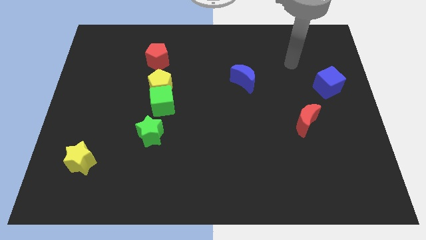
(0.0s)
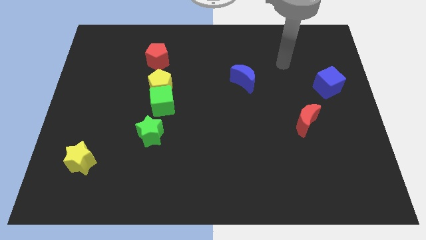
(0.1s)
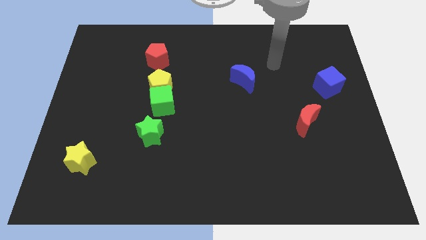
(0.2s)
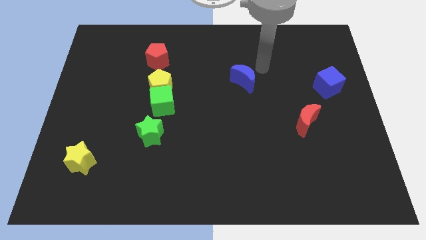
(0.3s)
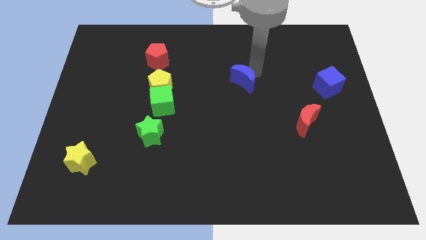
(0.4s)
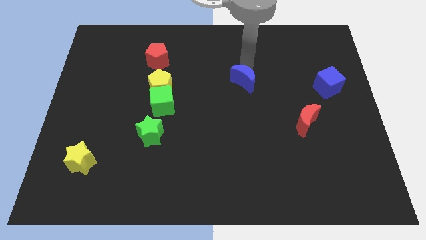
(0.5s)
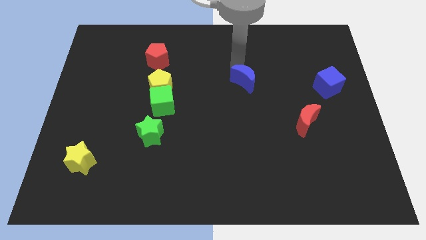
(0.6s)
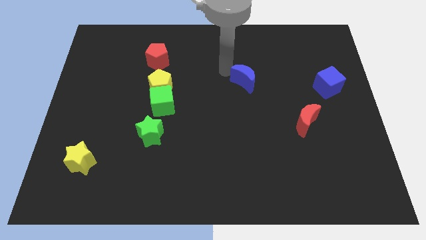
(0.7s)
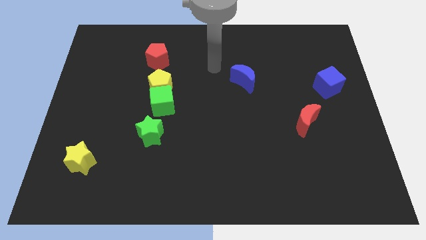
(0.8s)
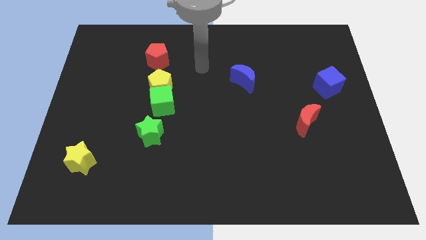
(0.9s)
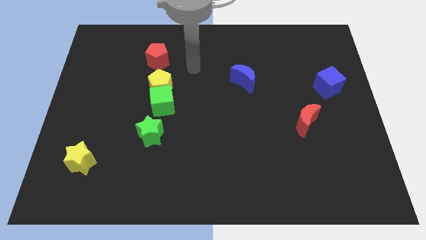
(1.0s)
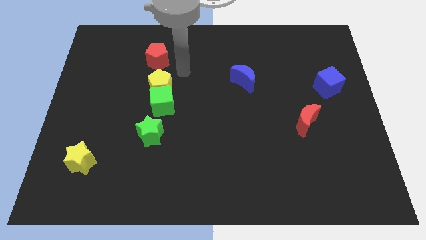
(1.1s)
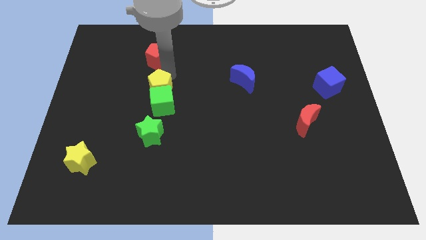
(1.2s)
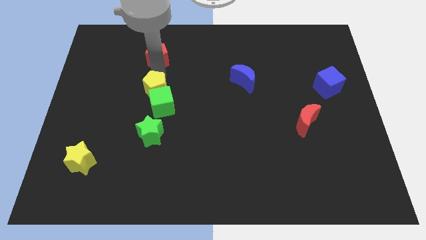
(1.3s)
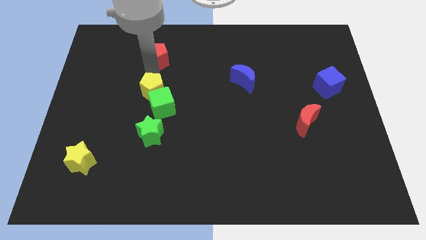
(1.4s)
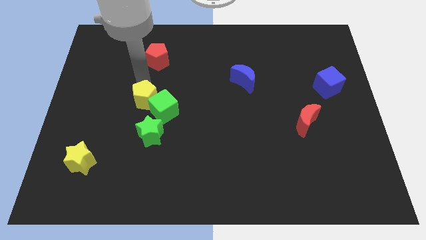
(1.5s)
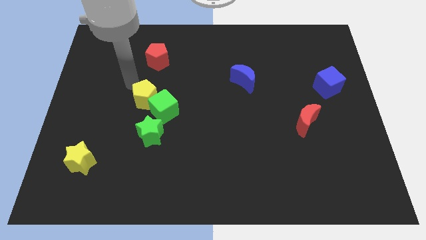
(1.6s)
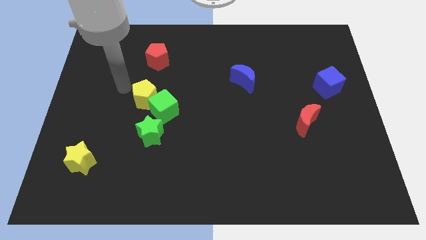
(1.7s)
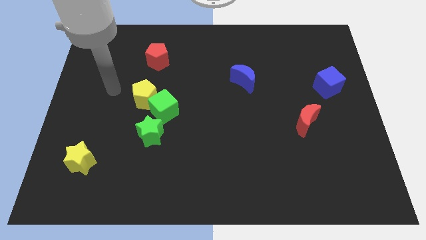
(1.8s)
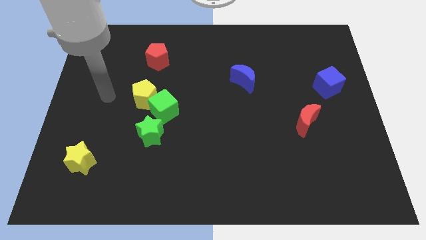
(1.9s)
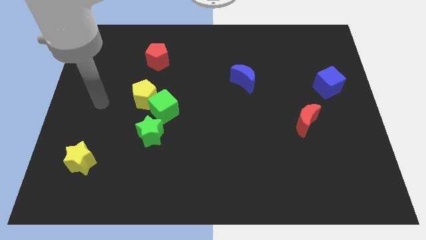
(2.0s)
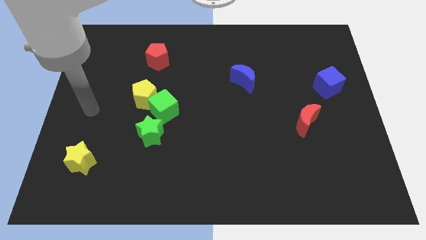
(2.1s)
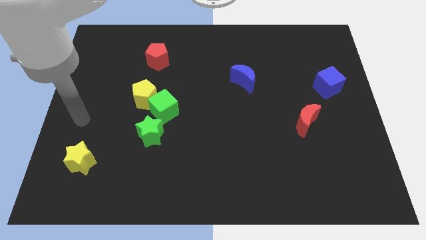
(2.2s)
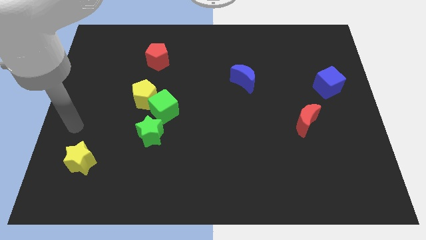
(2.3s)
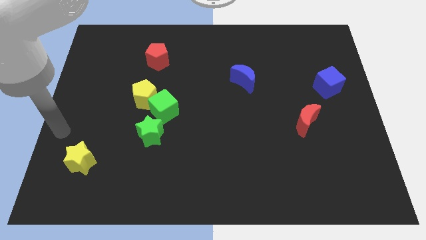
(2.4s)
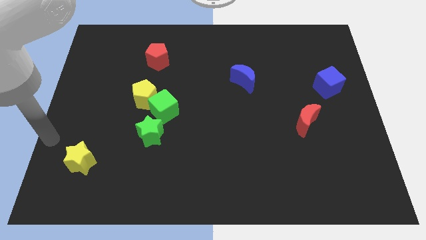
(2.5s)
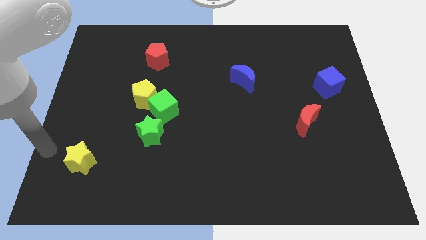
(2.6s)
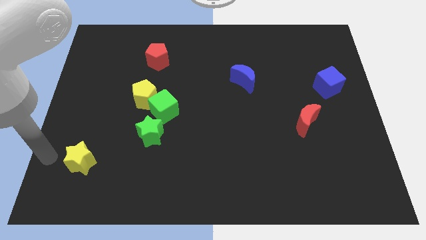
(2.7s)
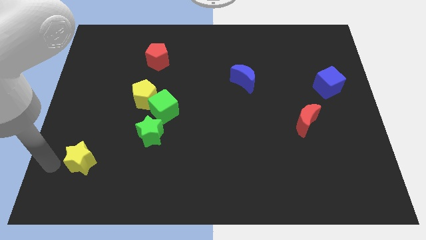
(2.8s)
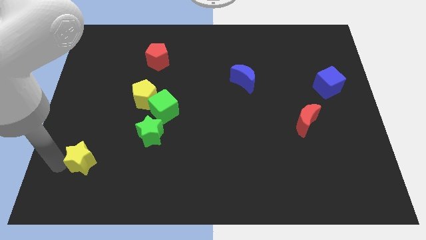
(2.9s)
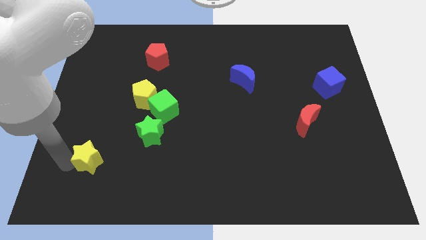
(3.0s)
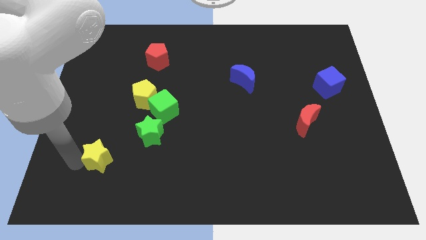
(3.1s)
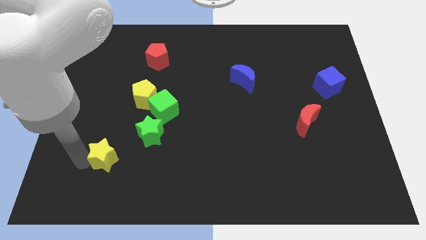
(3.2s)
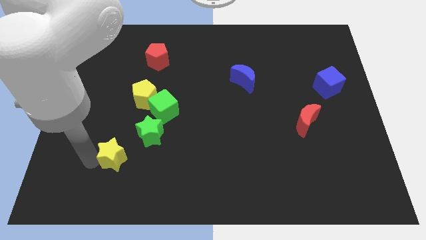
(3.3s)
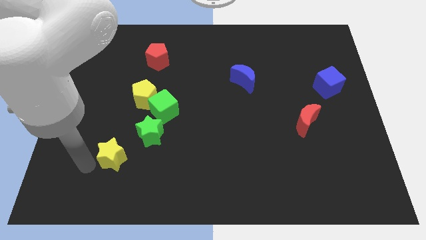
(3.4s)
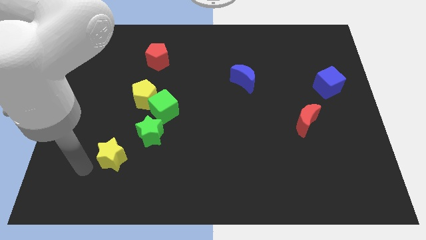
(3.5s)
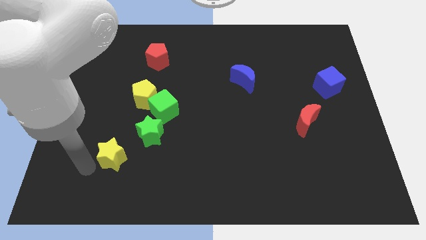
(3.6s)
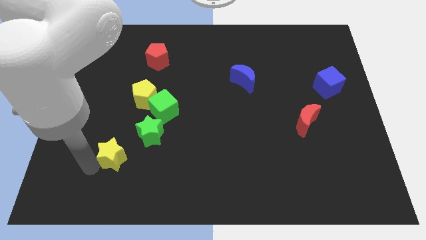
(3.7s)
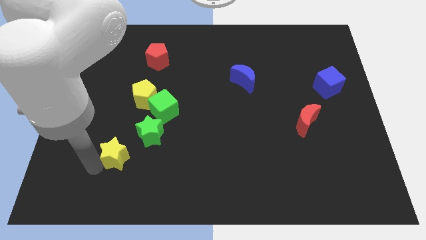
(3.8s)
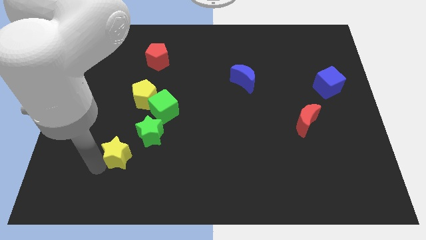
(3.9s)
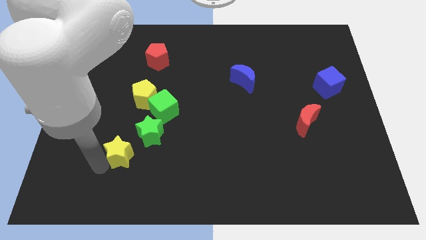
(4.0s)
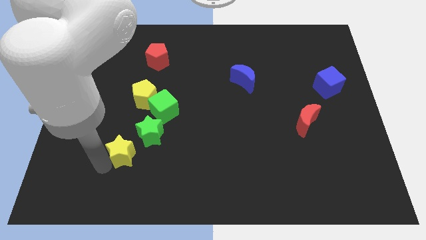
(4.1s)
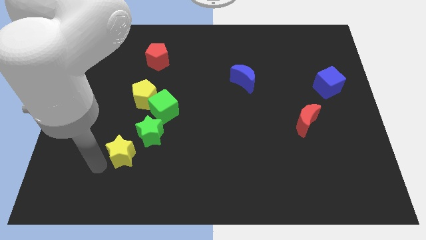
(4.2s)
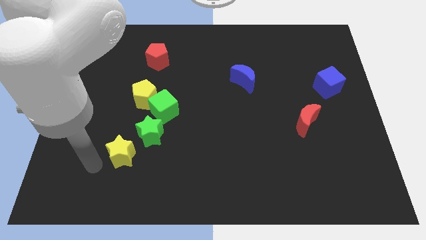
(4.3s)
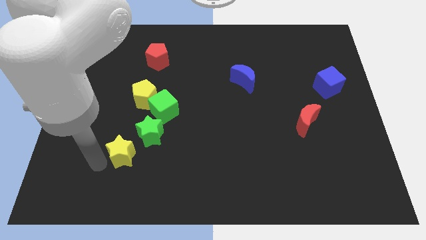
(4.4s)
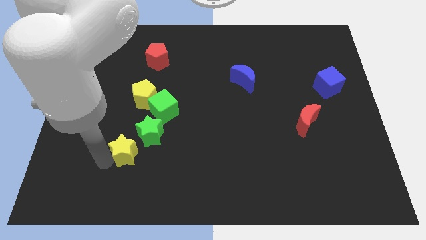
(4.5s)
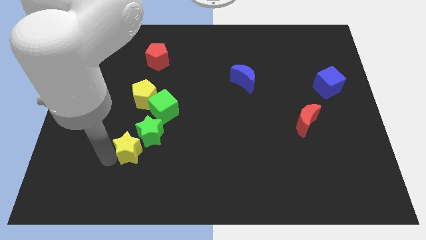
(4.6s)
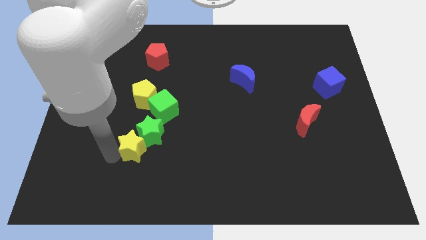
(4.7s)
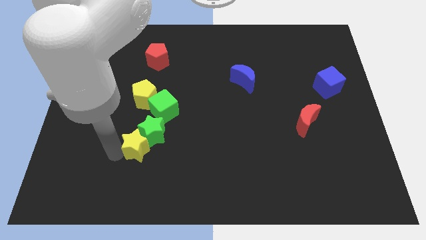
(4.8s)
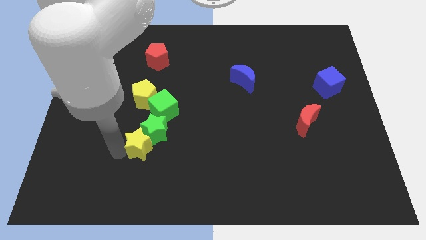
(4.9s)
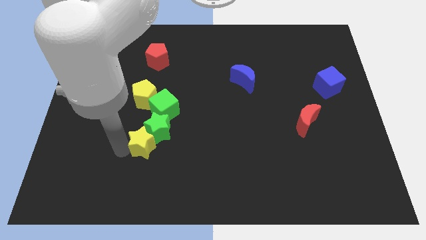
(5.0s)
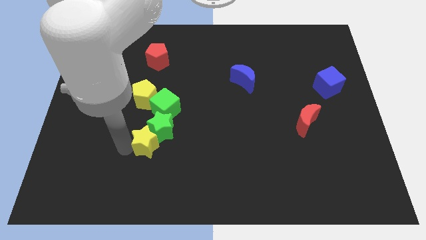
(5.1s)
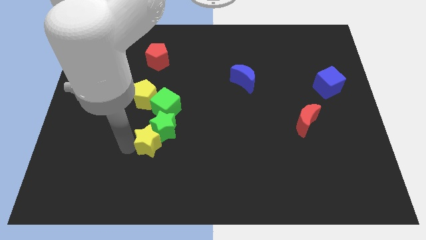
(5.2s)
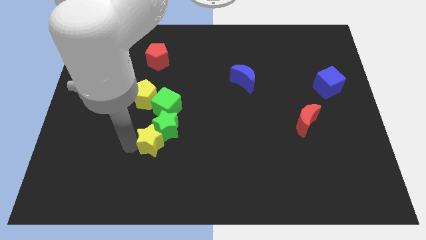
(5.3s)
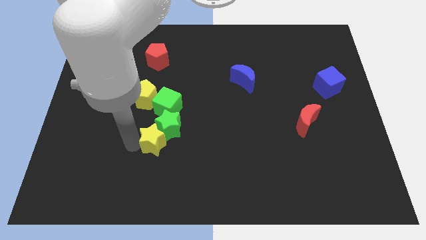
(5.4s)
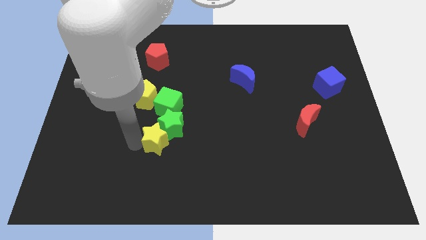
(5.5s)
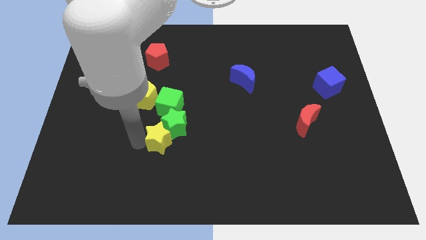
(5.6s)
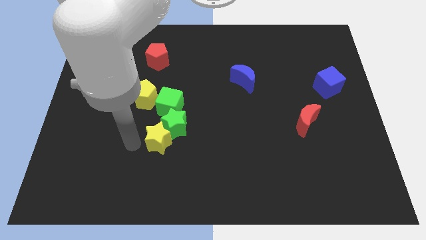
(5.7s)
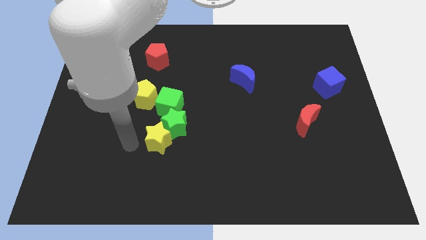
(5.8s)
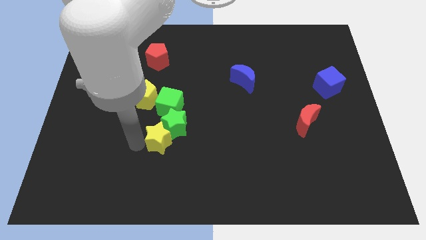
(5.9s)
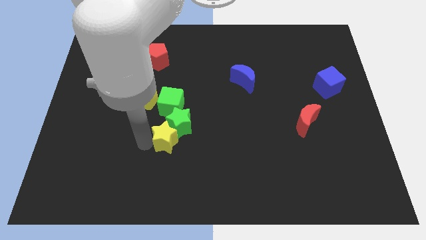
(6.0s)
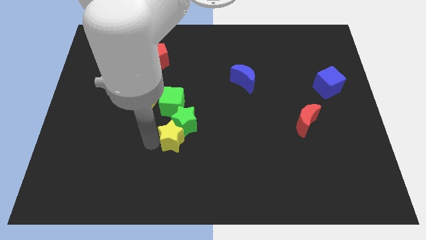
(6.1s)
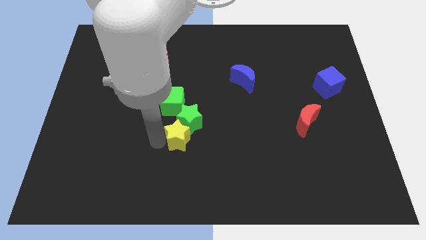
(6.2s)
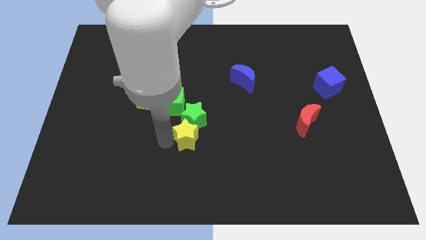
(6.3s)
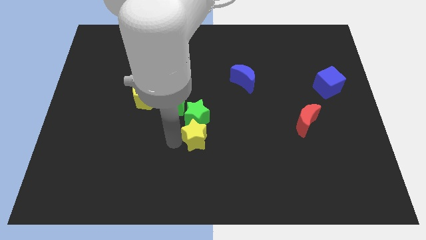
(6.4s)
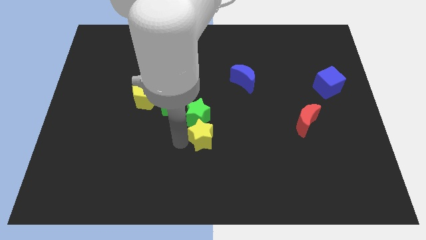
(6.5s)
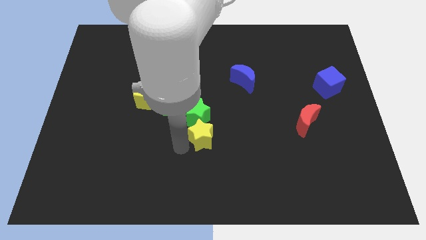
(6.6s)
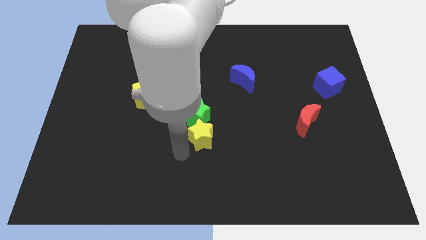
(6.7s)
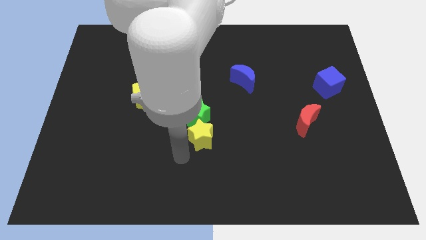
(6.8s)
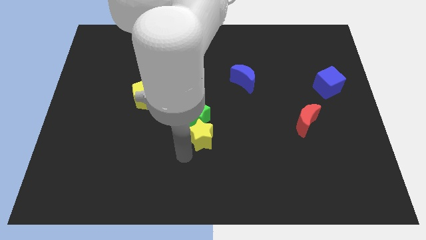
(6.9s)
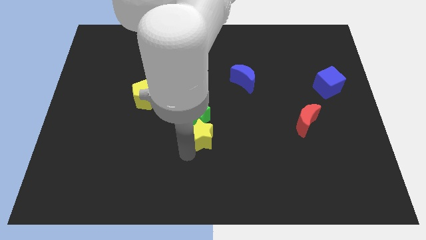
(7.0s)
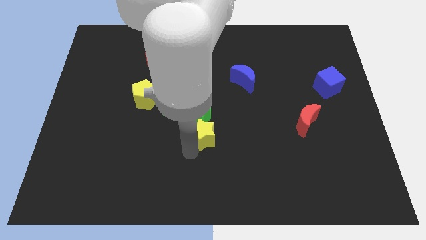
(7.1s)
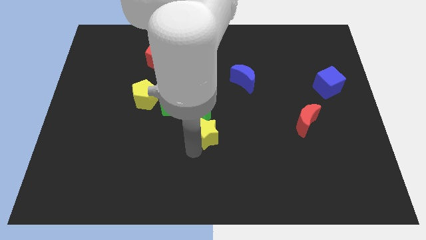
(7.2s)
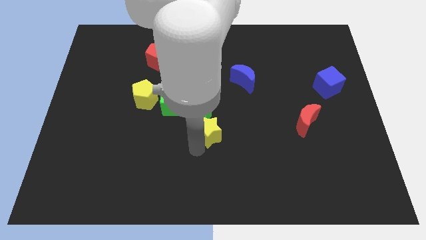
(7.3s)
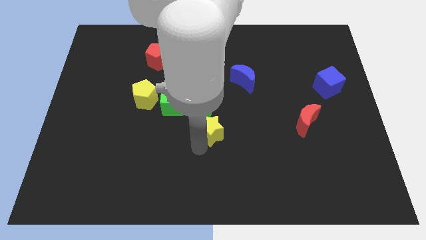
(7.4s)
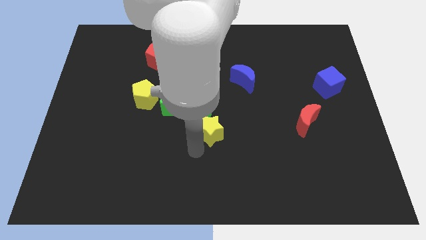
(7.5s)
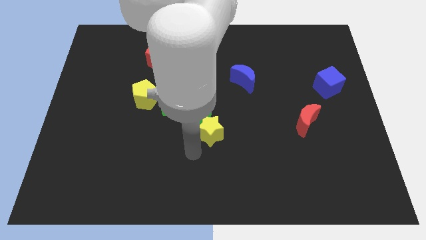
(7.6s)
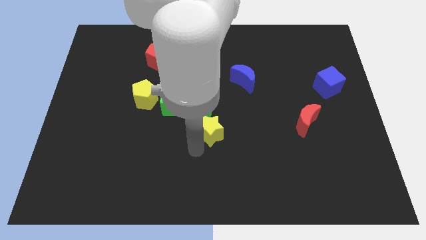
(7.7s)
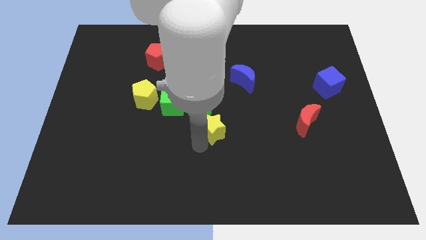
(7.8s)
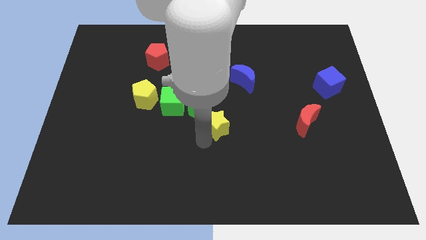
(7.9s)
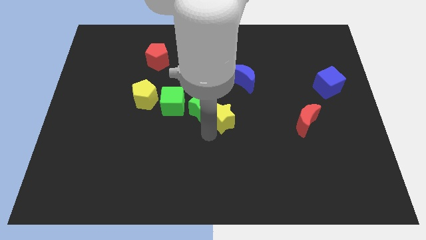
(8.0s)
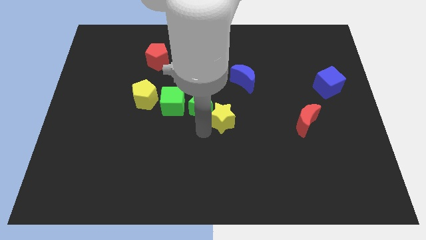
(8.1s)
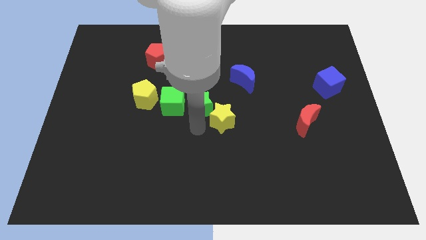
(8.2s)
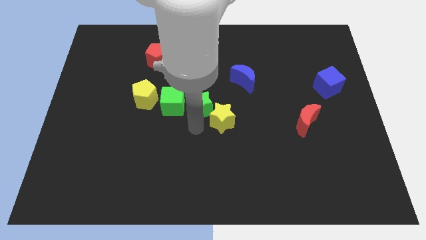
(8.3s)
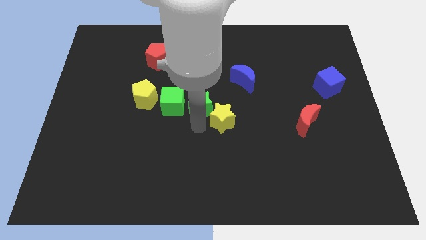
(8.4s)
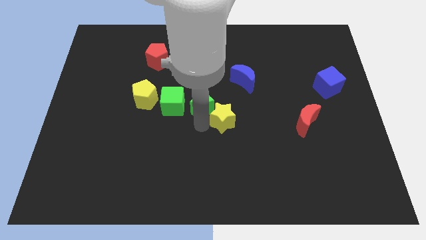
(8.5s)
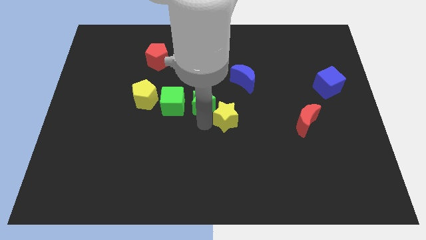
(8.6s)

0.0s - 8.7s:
move the yellow star below the blue moon
